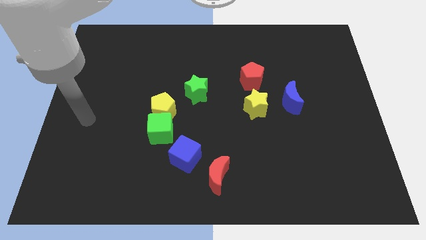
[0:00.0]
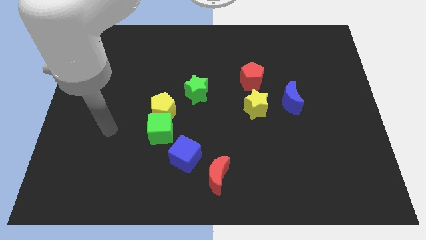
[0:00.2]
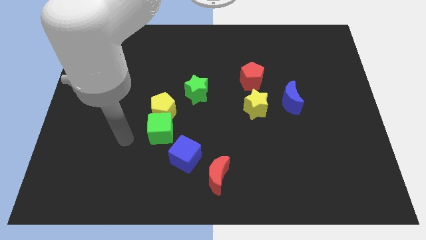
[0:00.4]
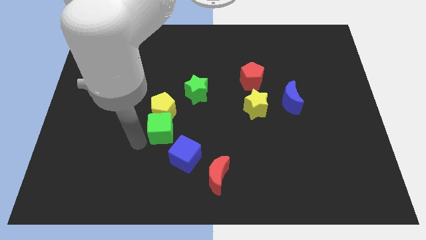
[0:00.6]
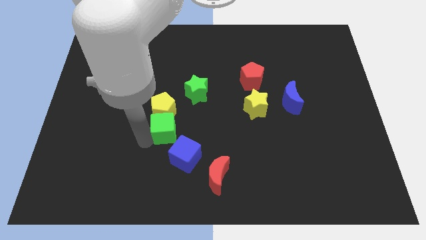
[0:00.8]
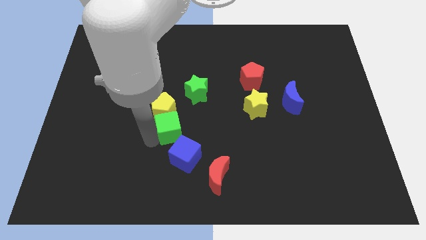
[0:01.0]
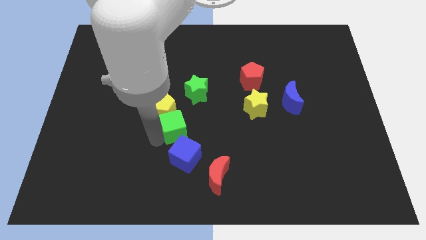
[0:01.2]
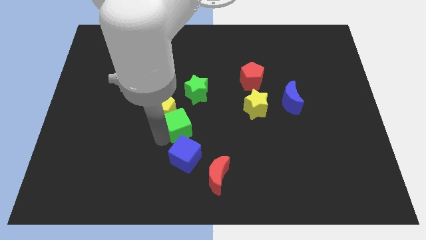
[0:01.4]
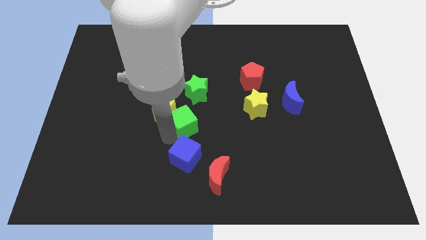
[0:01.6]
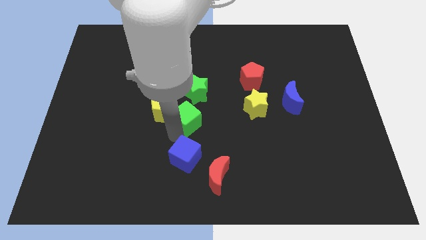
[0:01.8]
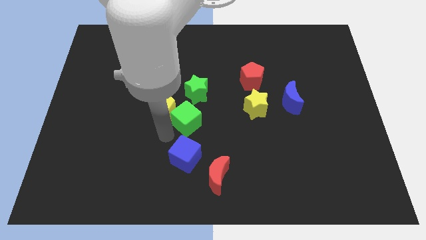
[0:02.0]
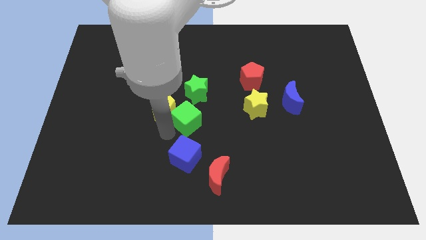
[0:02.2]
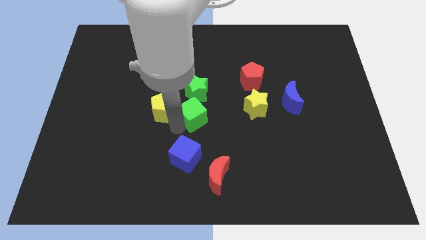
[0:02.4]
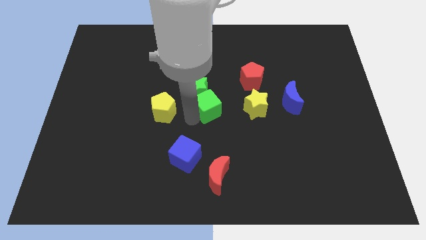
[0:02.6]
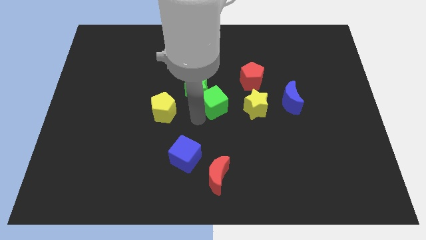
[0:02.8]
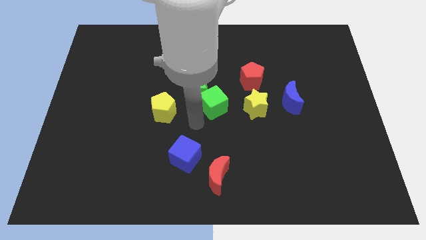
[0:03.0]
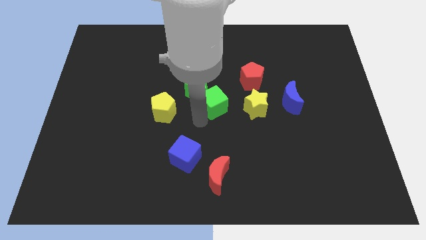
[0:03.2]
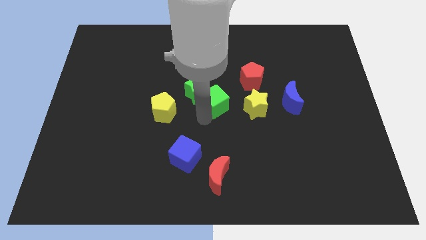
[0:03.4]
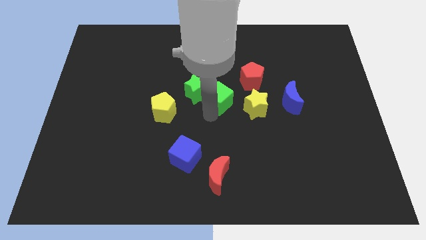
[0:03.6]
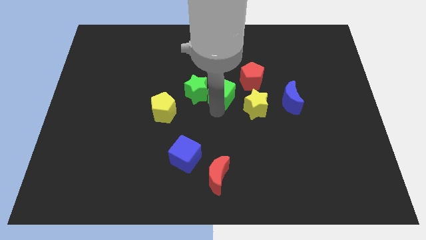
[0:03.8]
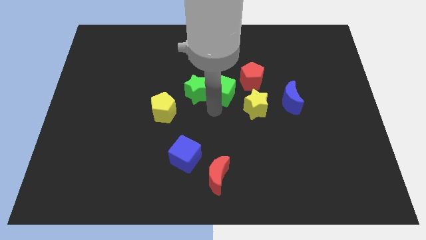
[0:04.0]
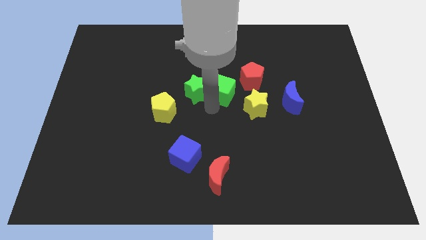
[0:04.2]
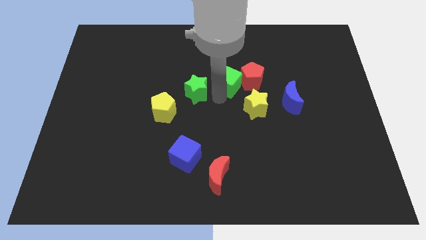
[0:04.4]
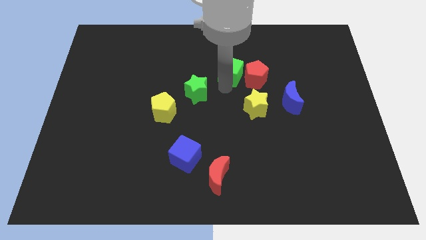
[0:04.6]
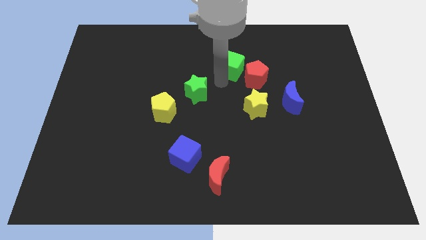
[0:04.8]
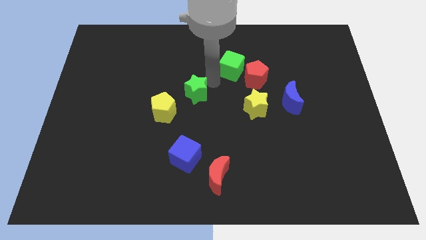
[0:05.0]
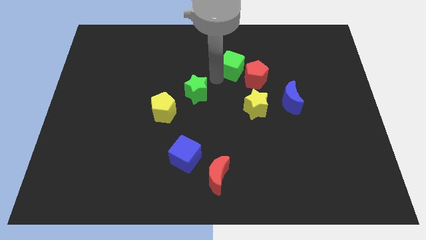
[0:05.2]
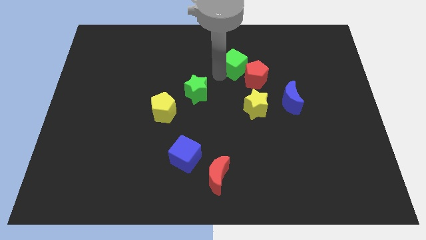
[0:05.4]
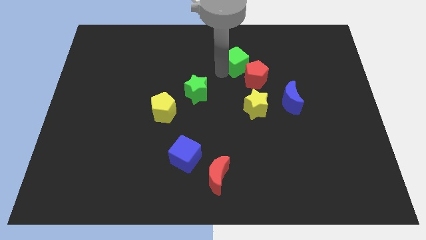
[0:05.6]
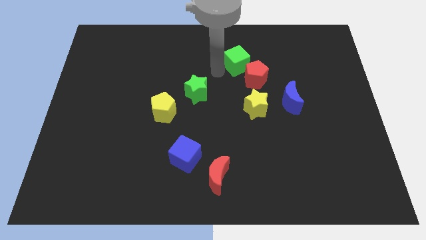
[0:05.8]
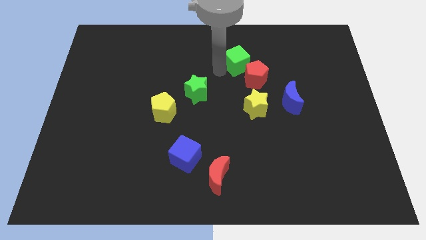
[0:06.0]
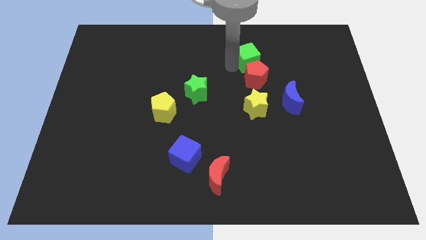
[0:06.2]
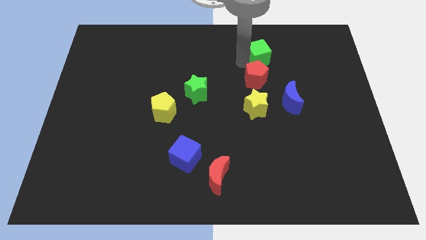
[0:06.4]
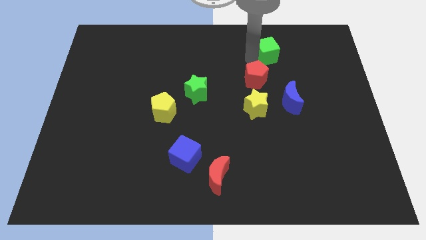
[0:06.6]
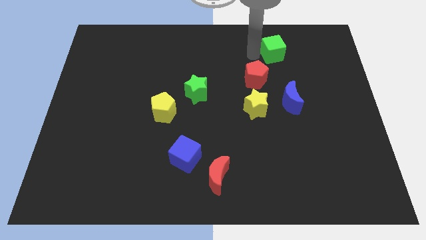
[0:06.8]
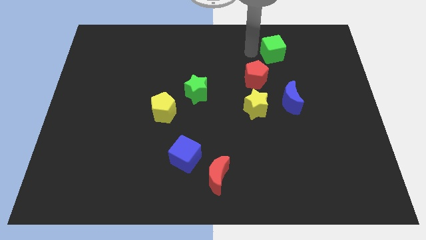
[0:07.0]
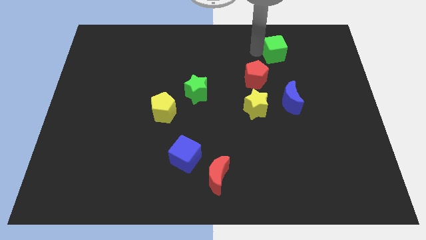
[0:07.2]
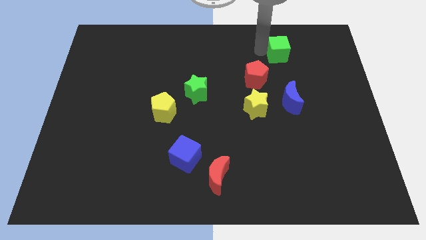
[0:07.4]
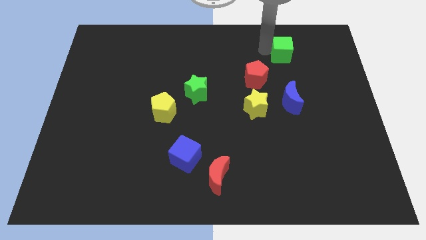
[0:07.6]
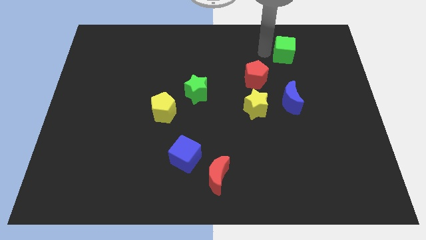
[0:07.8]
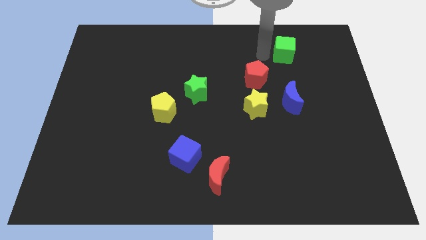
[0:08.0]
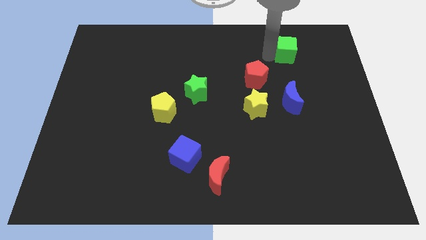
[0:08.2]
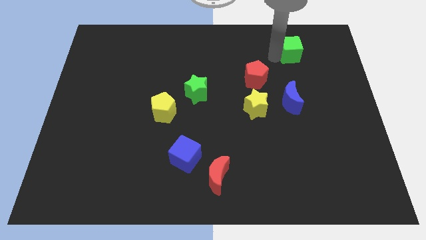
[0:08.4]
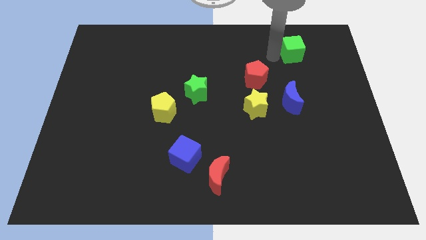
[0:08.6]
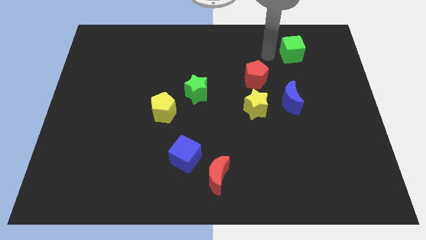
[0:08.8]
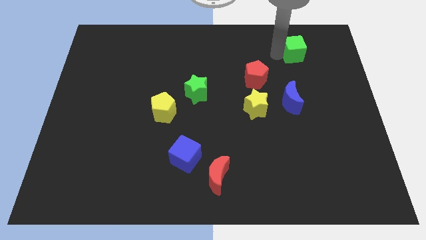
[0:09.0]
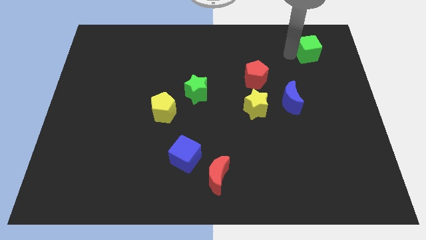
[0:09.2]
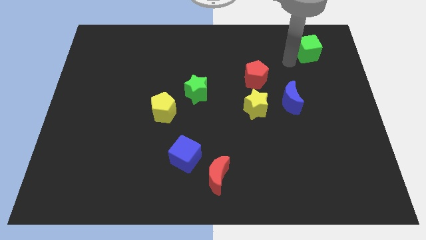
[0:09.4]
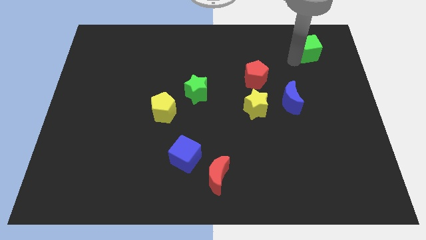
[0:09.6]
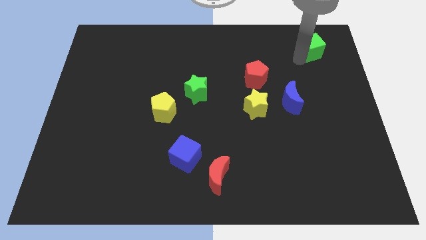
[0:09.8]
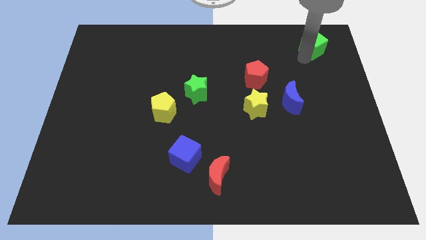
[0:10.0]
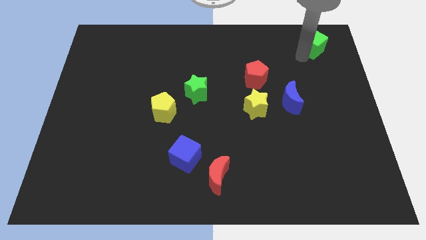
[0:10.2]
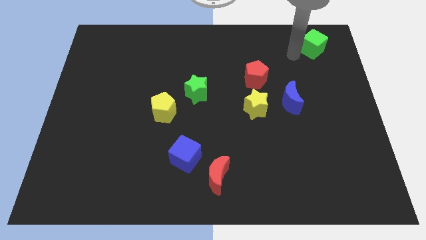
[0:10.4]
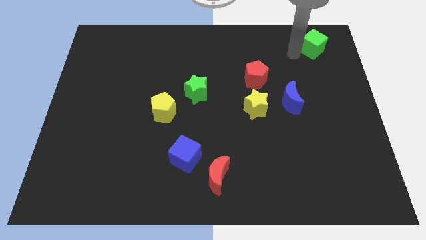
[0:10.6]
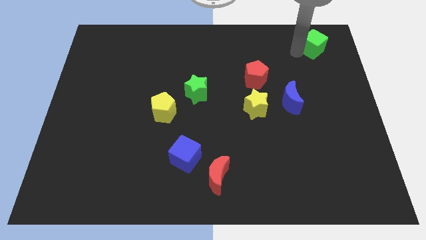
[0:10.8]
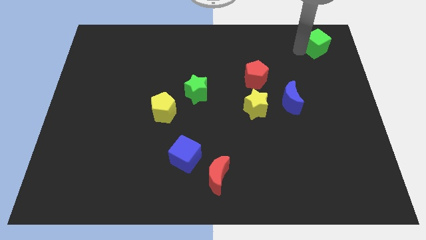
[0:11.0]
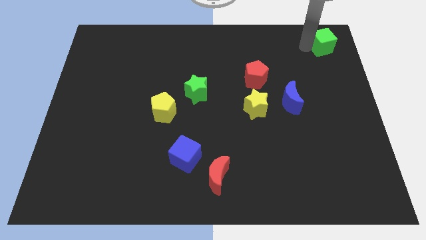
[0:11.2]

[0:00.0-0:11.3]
push the green cube to the upper right corner

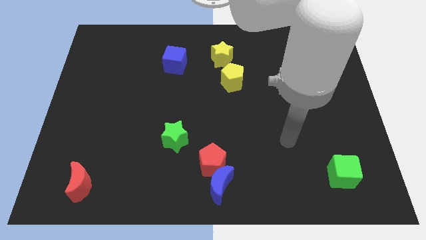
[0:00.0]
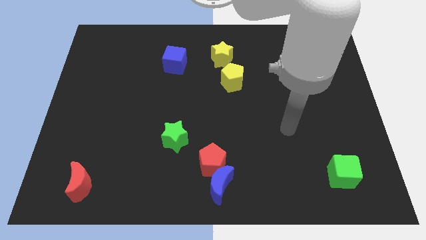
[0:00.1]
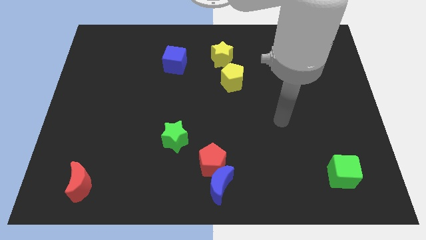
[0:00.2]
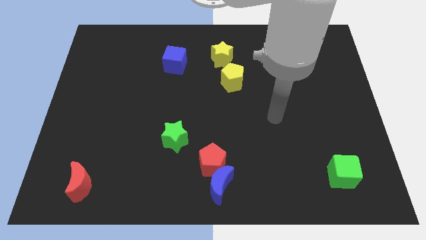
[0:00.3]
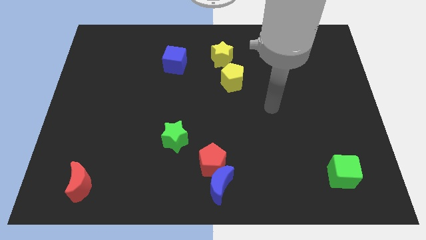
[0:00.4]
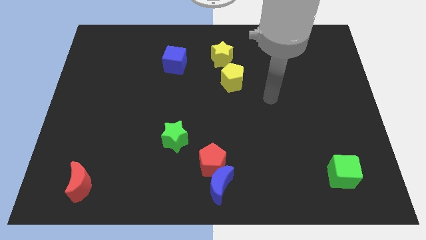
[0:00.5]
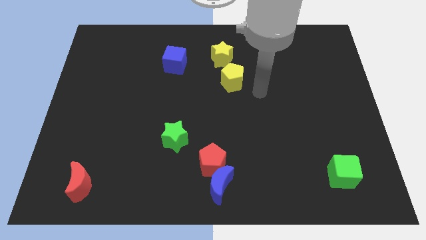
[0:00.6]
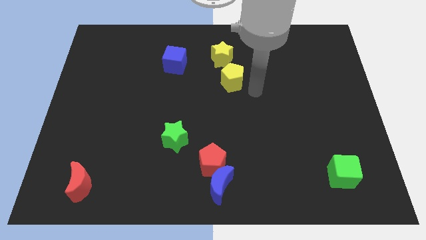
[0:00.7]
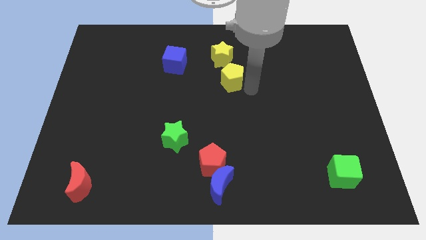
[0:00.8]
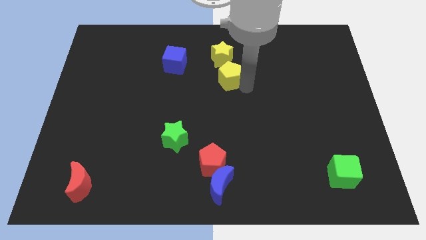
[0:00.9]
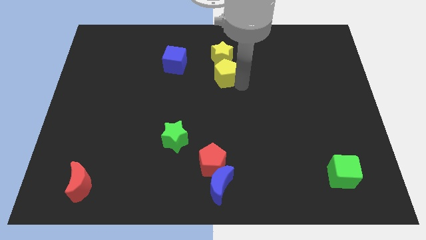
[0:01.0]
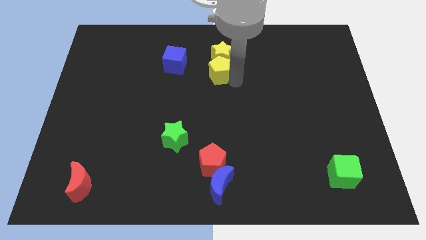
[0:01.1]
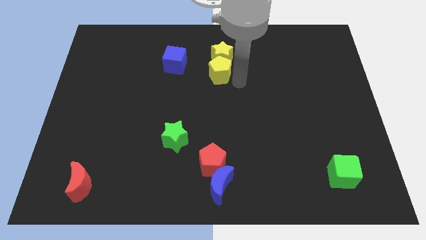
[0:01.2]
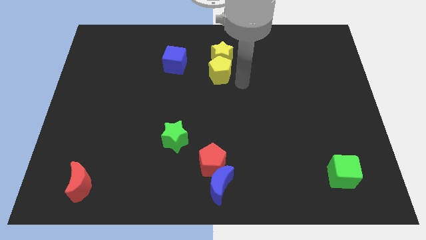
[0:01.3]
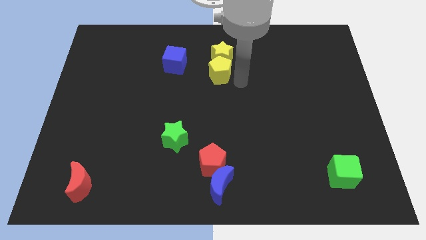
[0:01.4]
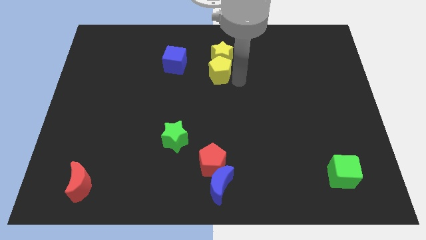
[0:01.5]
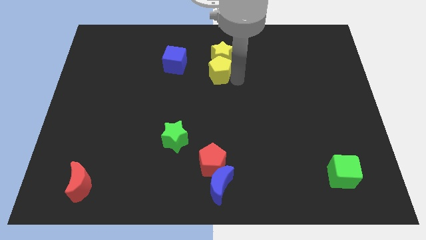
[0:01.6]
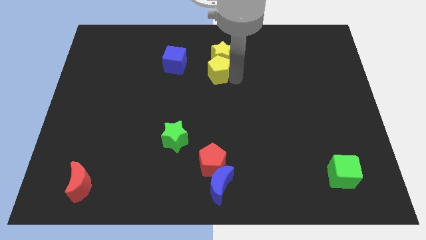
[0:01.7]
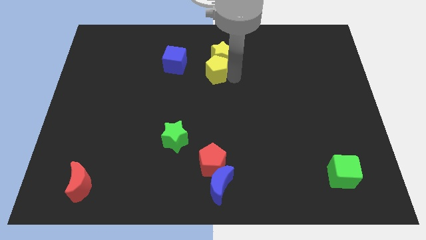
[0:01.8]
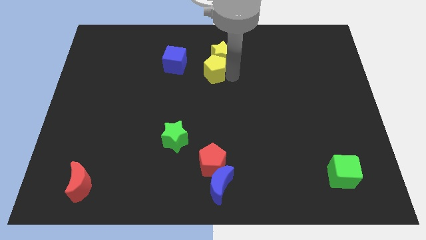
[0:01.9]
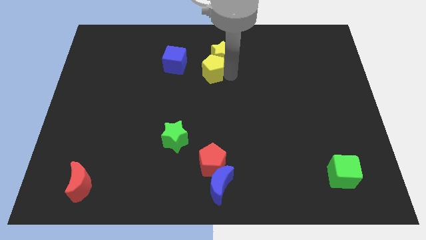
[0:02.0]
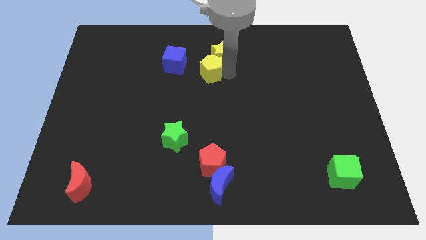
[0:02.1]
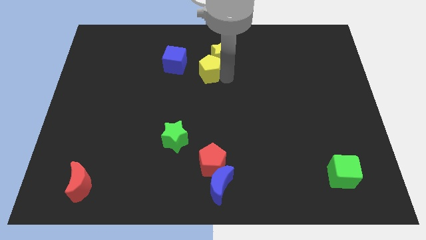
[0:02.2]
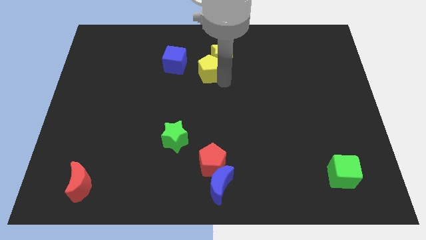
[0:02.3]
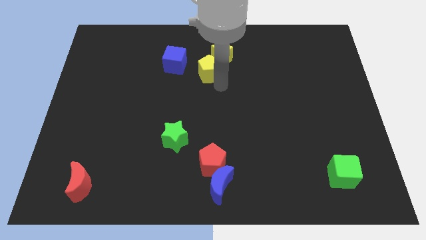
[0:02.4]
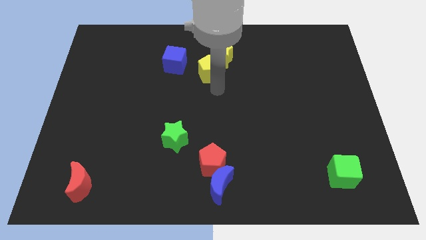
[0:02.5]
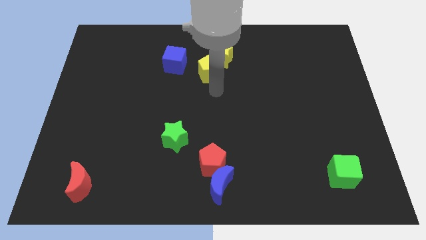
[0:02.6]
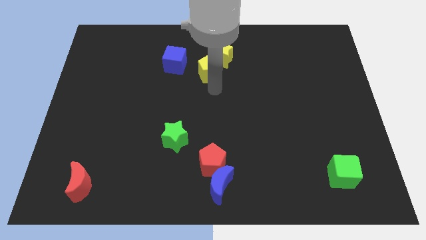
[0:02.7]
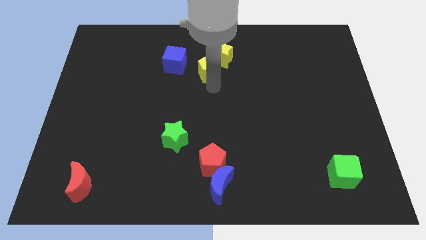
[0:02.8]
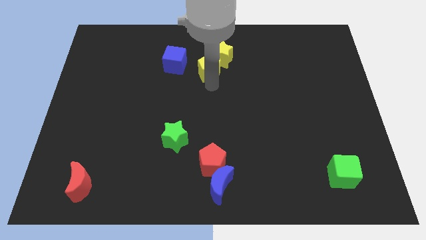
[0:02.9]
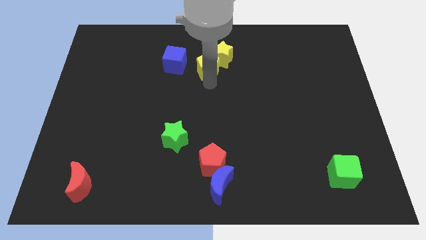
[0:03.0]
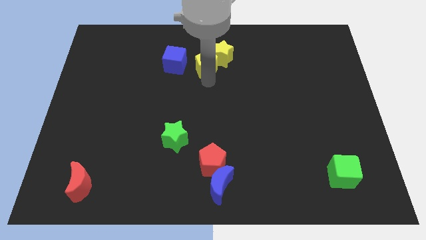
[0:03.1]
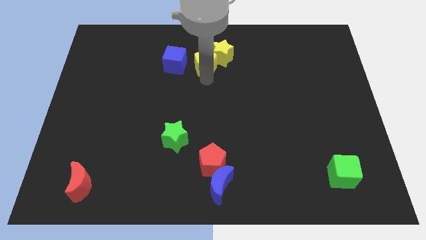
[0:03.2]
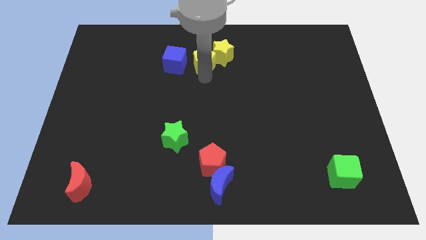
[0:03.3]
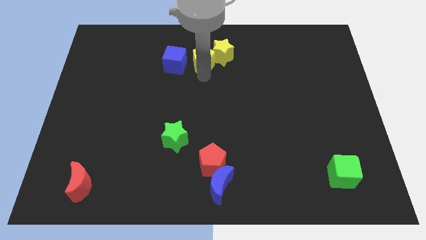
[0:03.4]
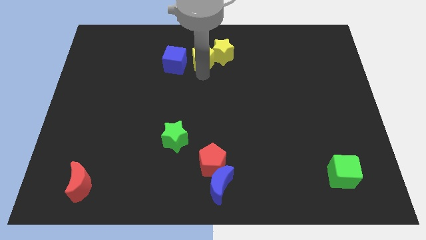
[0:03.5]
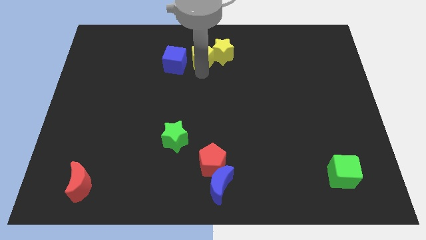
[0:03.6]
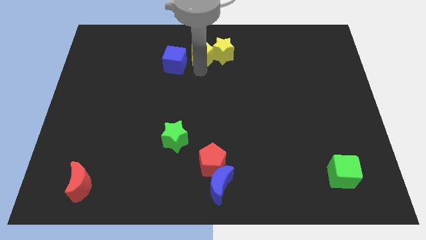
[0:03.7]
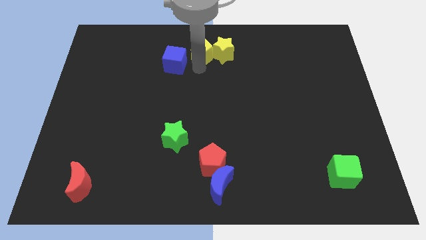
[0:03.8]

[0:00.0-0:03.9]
slide the yellow pentagon to the towards your base
